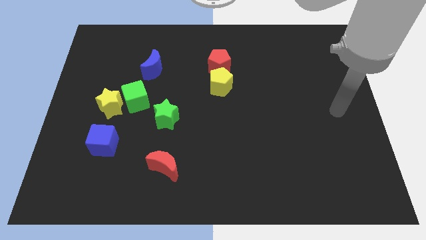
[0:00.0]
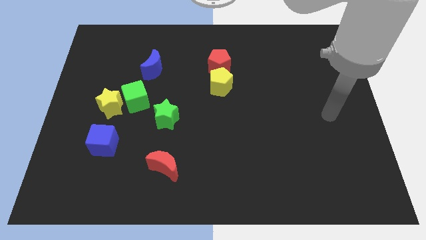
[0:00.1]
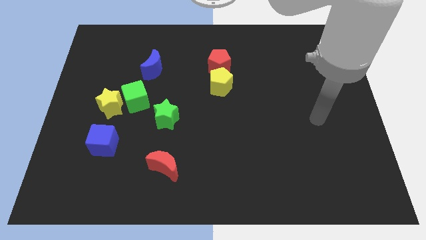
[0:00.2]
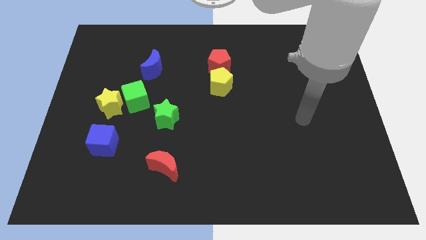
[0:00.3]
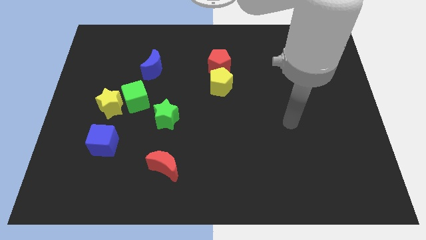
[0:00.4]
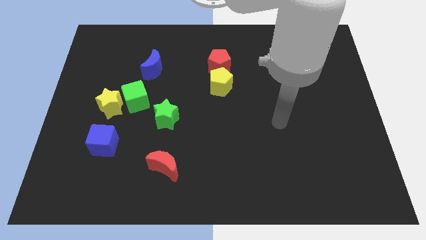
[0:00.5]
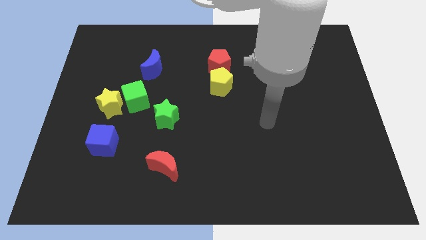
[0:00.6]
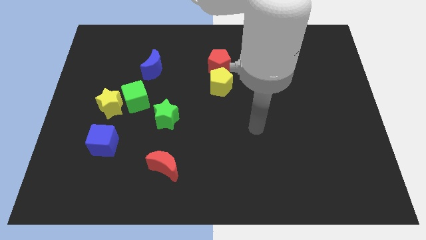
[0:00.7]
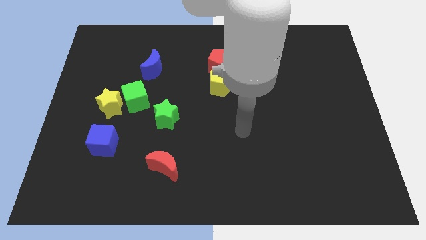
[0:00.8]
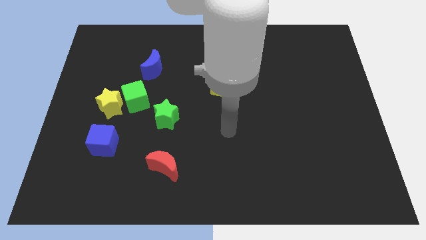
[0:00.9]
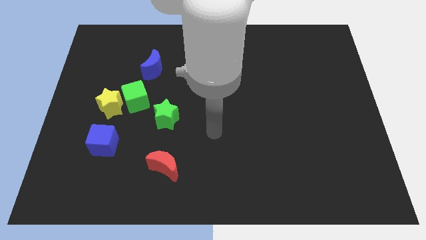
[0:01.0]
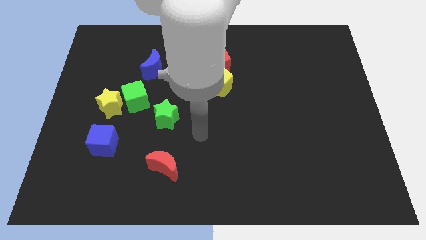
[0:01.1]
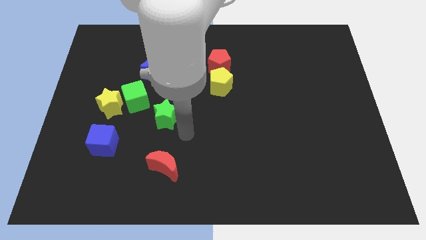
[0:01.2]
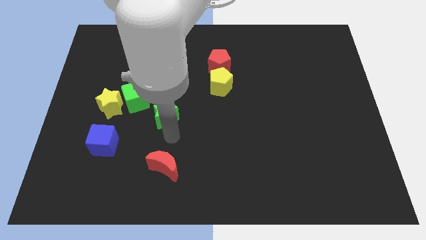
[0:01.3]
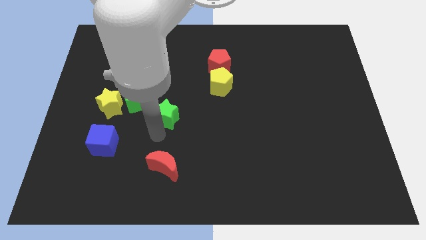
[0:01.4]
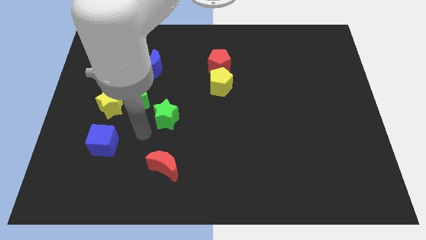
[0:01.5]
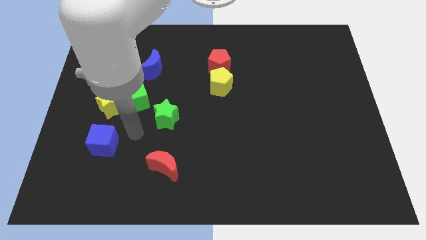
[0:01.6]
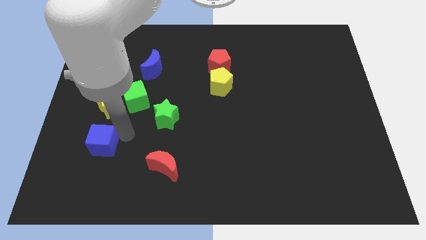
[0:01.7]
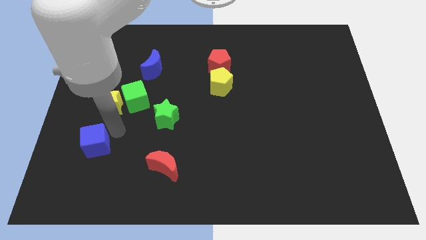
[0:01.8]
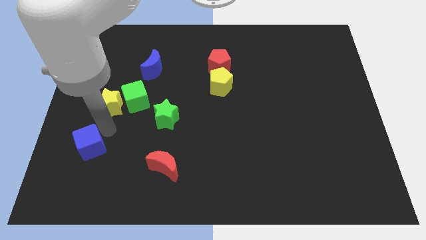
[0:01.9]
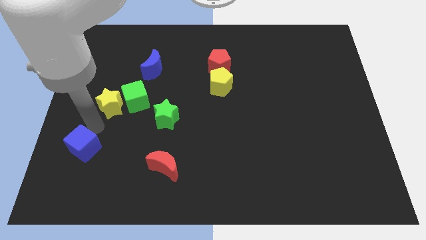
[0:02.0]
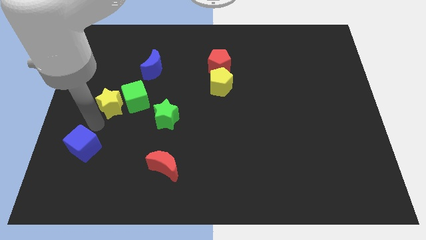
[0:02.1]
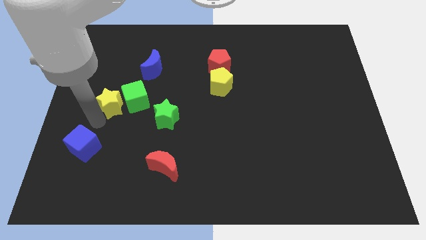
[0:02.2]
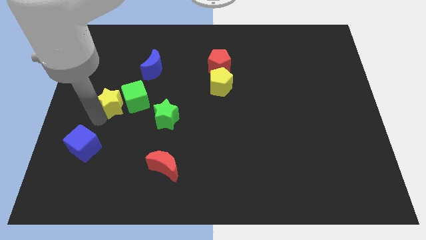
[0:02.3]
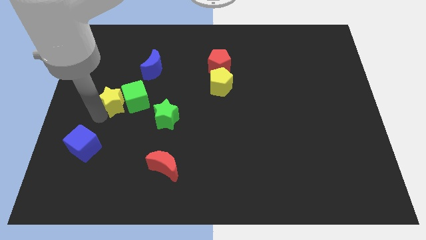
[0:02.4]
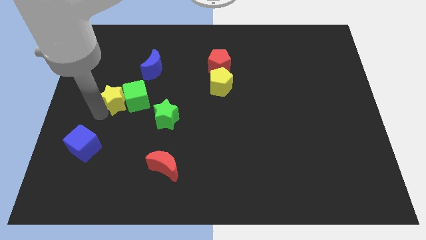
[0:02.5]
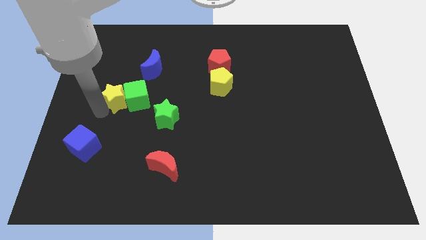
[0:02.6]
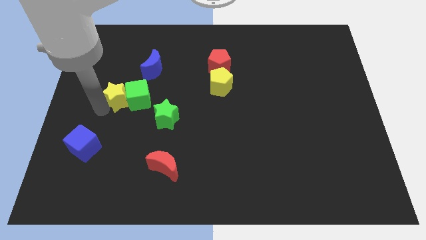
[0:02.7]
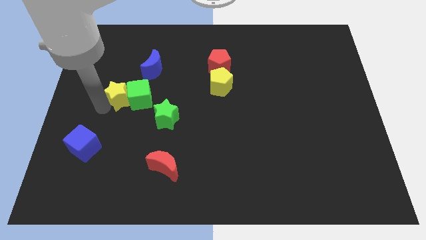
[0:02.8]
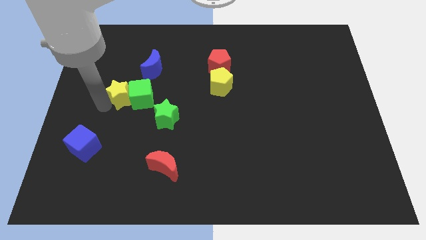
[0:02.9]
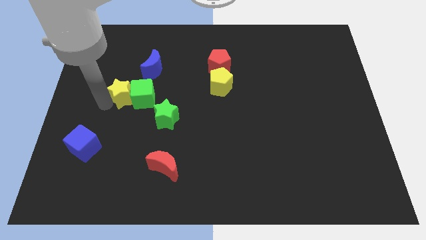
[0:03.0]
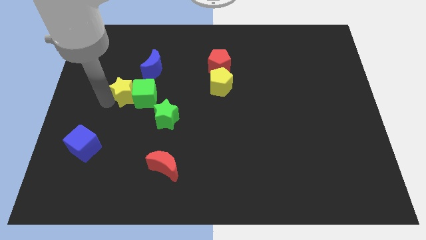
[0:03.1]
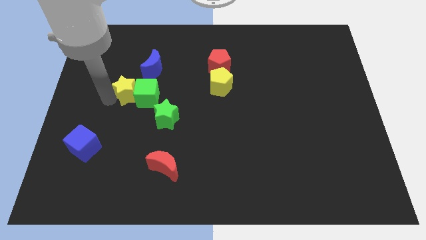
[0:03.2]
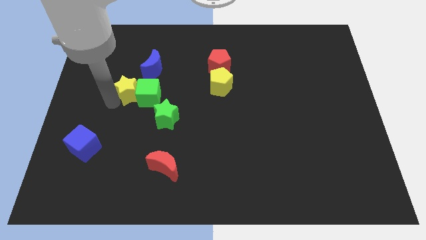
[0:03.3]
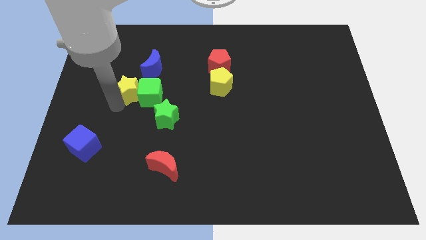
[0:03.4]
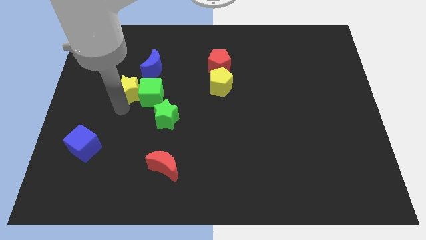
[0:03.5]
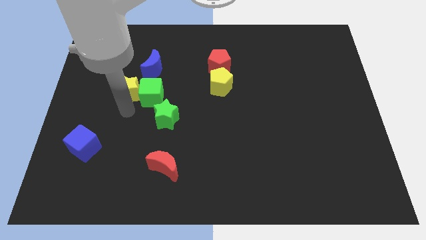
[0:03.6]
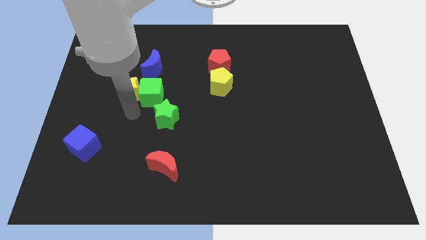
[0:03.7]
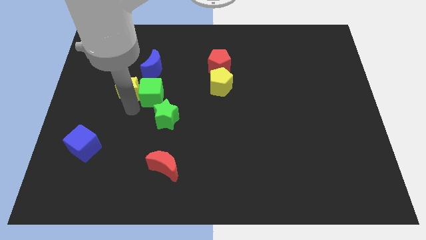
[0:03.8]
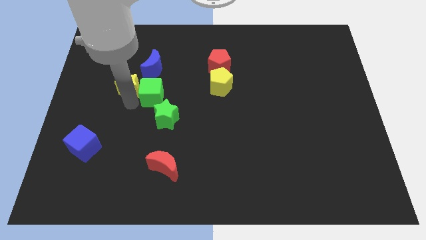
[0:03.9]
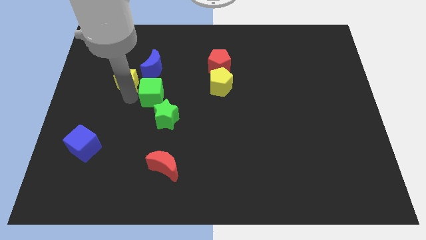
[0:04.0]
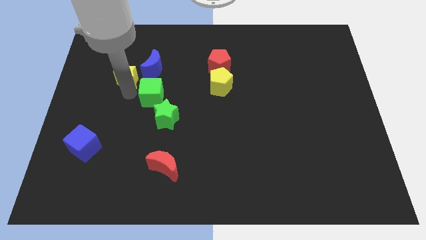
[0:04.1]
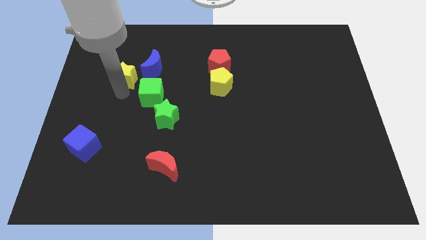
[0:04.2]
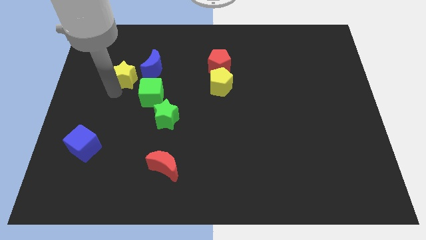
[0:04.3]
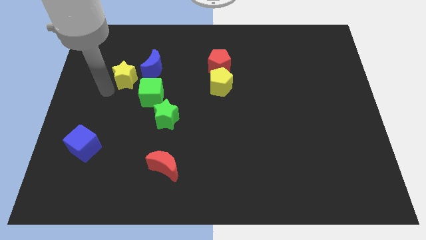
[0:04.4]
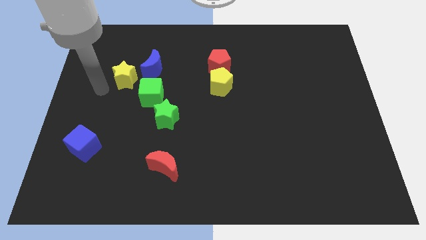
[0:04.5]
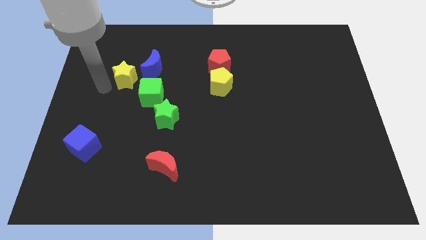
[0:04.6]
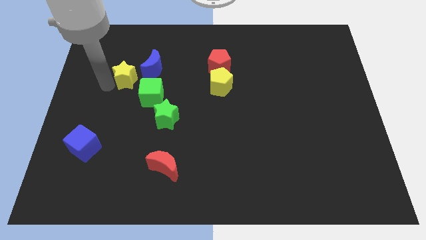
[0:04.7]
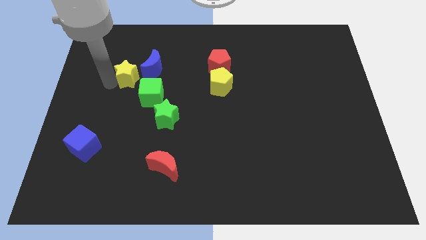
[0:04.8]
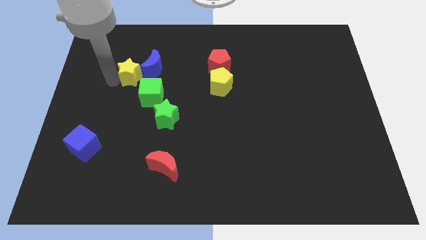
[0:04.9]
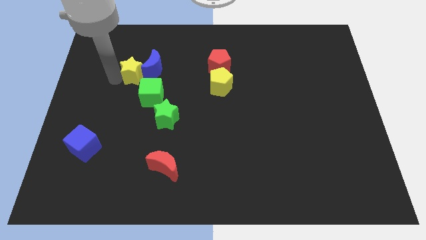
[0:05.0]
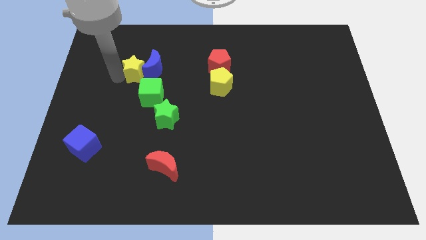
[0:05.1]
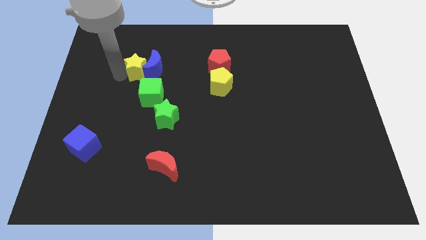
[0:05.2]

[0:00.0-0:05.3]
put the yellow star above the green cube

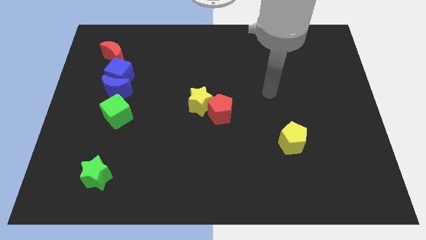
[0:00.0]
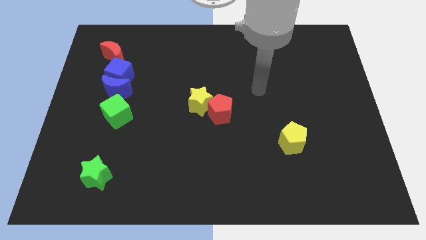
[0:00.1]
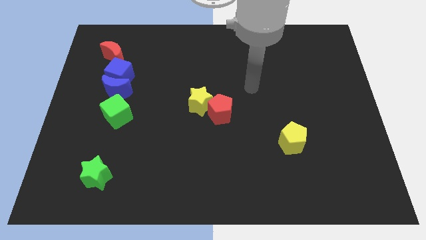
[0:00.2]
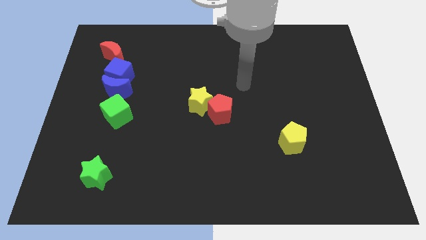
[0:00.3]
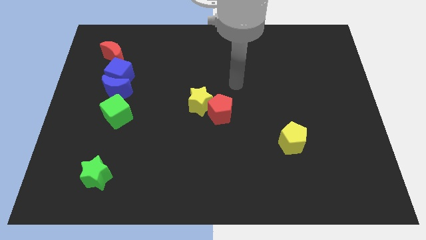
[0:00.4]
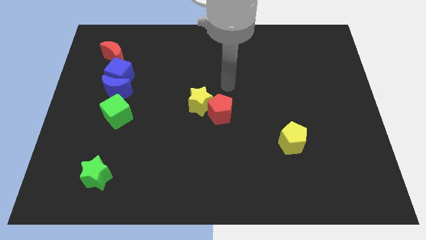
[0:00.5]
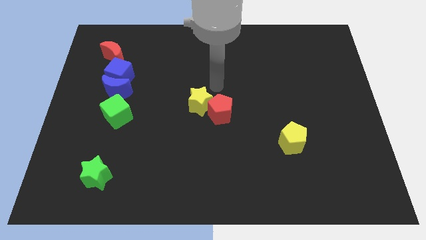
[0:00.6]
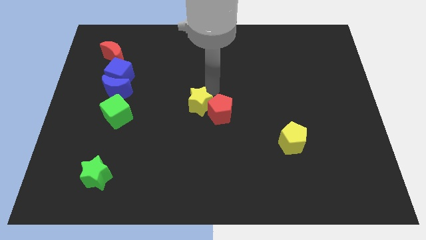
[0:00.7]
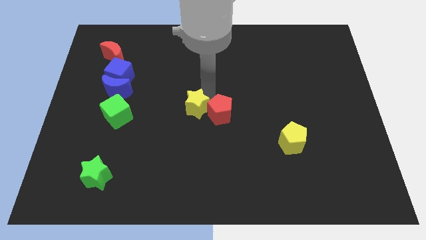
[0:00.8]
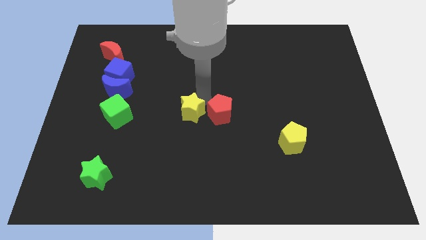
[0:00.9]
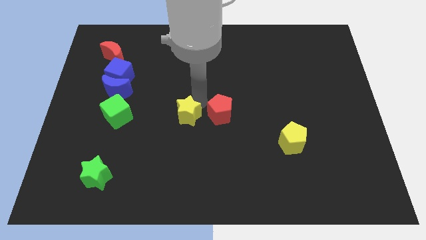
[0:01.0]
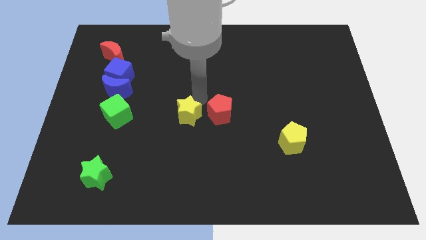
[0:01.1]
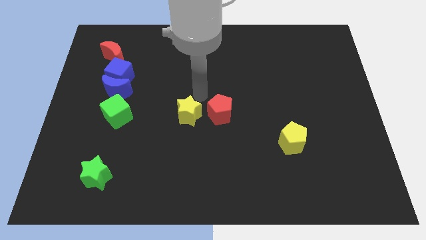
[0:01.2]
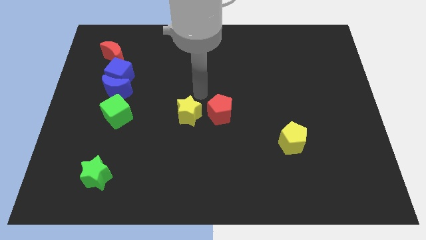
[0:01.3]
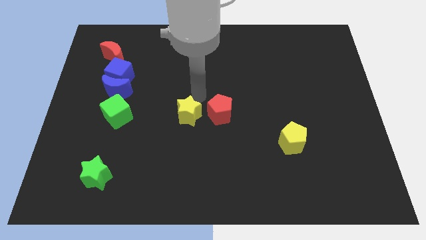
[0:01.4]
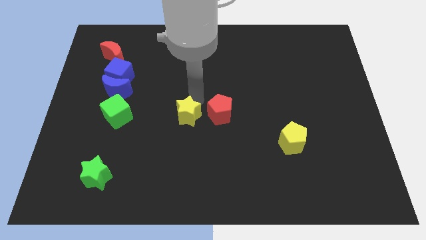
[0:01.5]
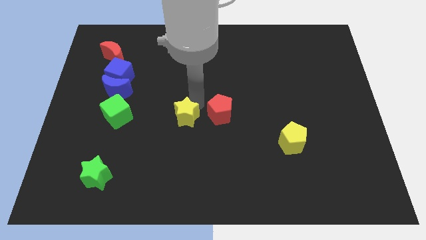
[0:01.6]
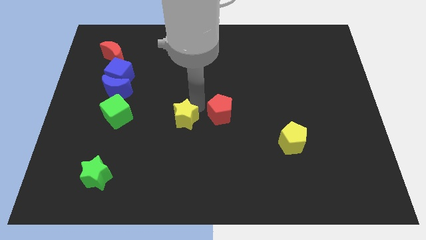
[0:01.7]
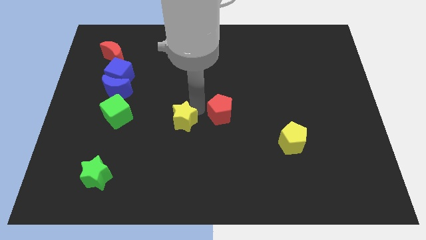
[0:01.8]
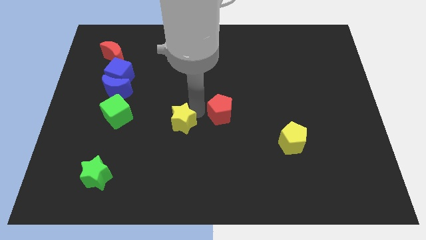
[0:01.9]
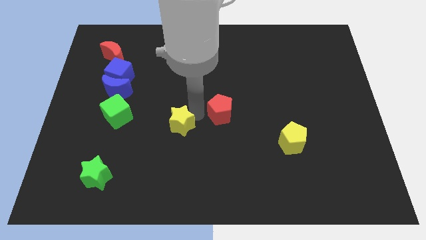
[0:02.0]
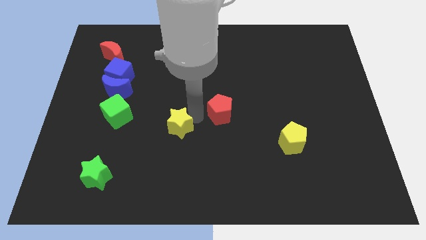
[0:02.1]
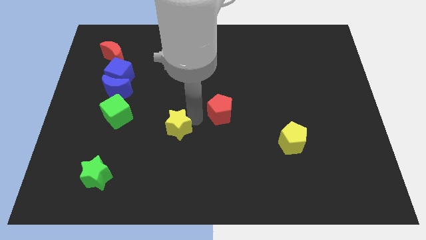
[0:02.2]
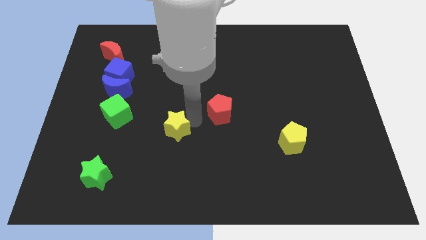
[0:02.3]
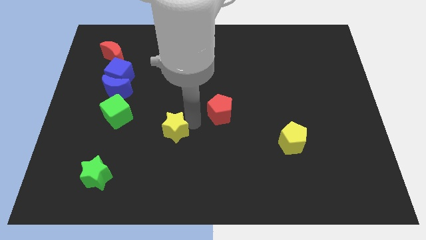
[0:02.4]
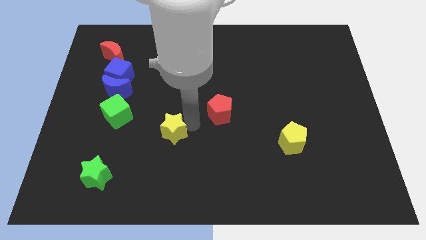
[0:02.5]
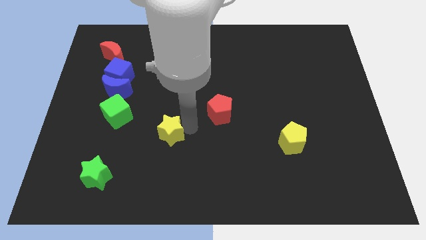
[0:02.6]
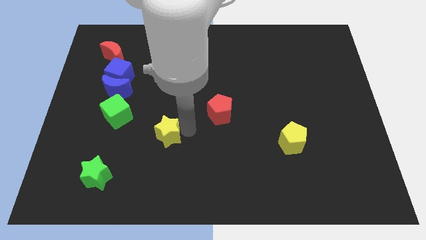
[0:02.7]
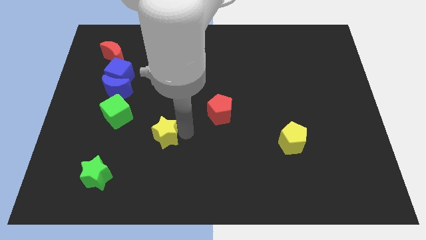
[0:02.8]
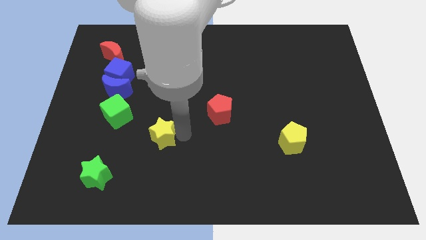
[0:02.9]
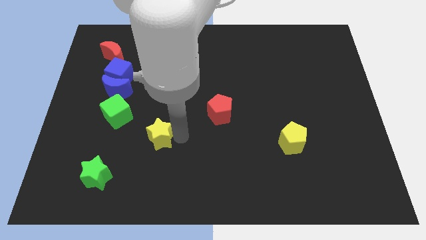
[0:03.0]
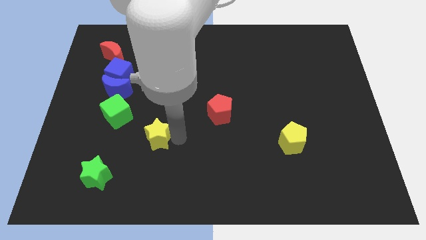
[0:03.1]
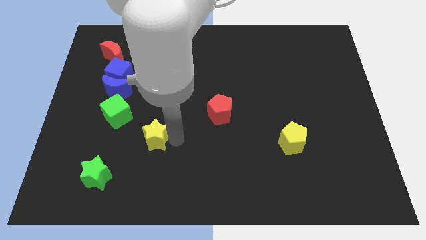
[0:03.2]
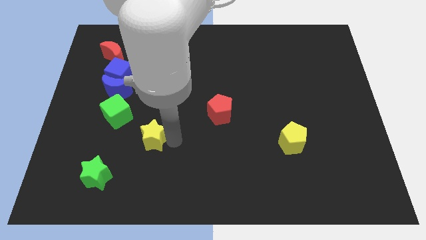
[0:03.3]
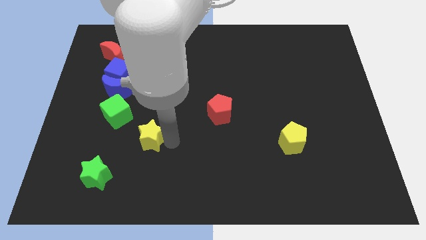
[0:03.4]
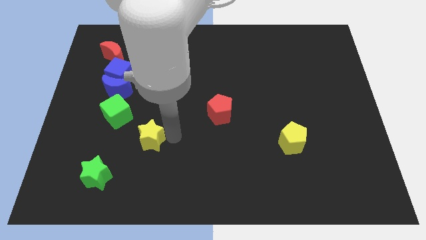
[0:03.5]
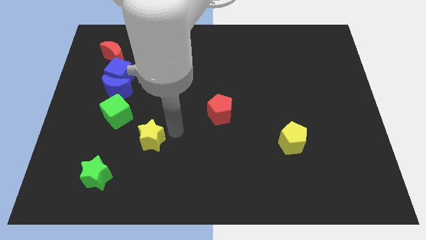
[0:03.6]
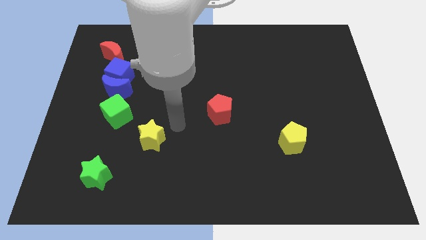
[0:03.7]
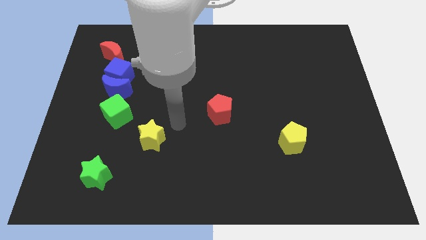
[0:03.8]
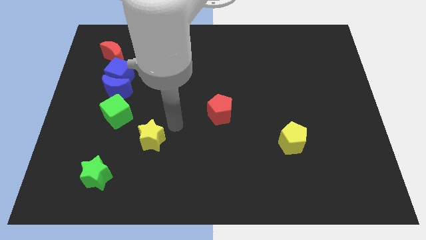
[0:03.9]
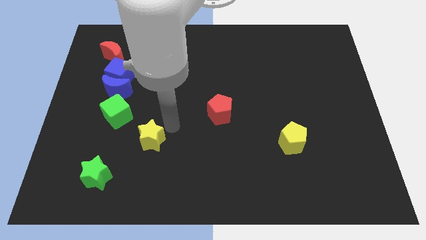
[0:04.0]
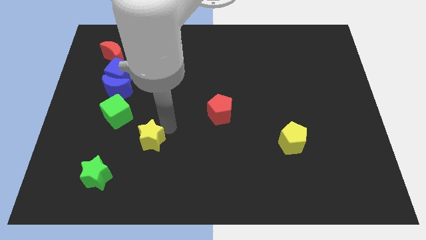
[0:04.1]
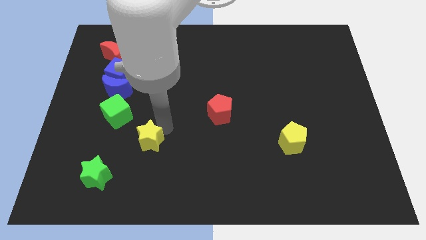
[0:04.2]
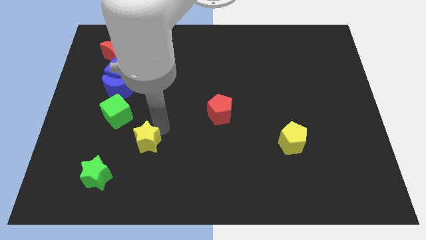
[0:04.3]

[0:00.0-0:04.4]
move the yellow star to the top right side of the green star
